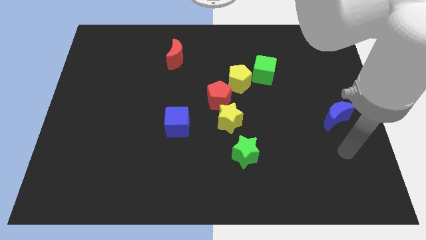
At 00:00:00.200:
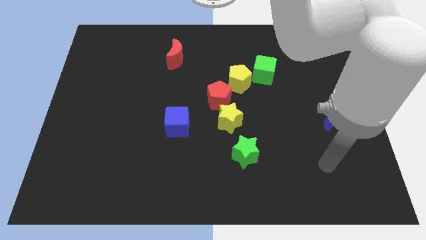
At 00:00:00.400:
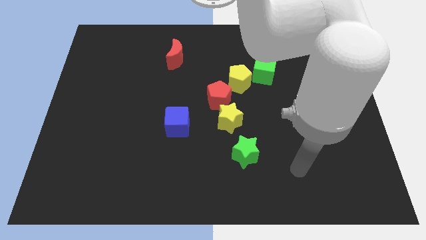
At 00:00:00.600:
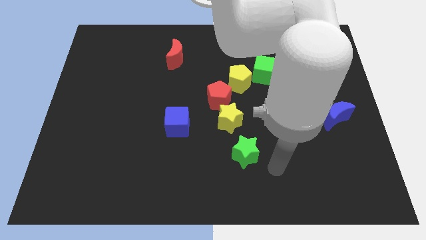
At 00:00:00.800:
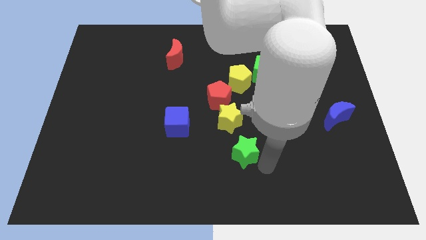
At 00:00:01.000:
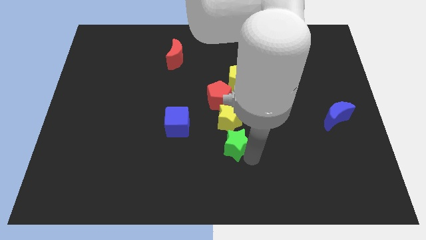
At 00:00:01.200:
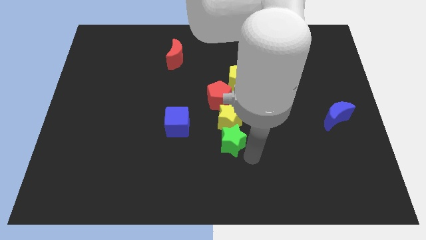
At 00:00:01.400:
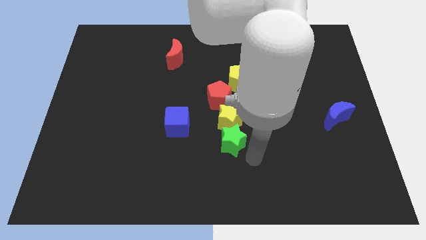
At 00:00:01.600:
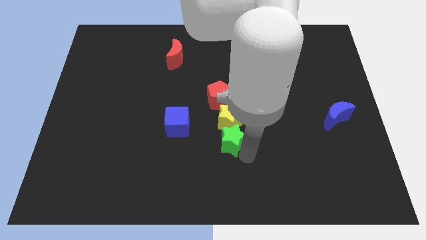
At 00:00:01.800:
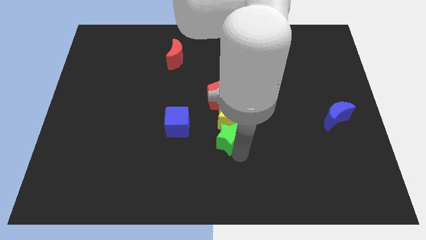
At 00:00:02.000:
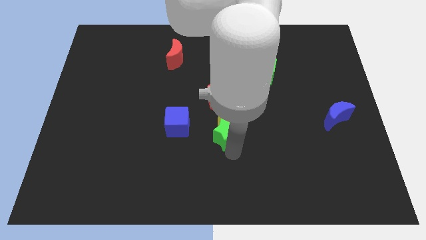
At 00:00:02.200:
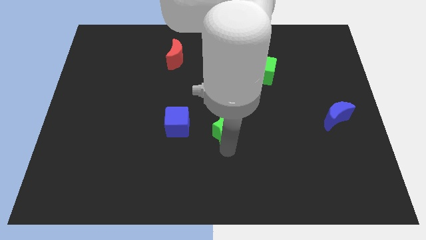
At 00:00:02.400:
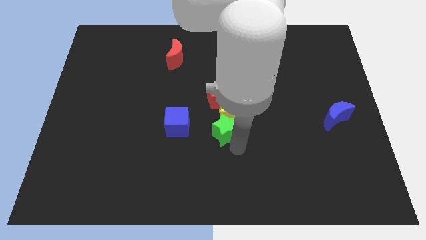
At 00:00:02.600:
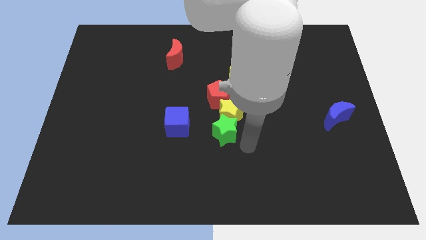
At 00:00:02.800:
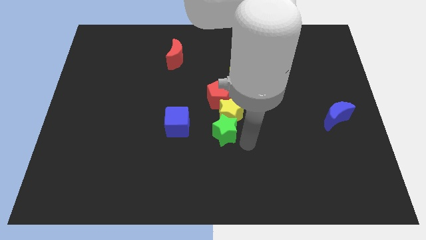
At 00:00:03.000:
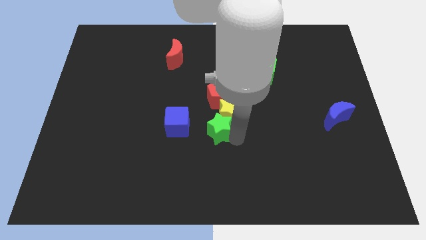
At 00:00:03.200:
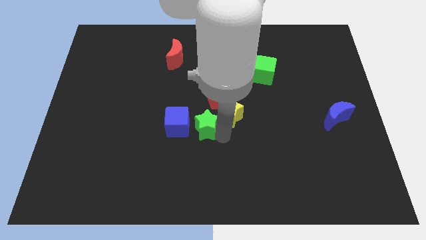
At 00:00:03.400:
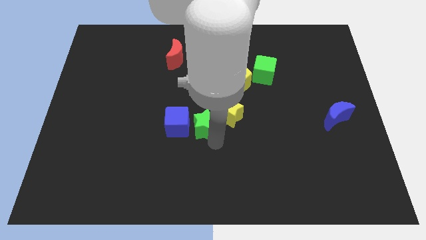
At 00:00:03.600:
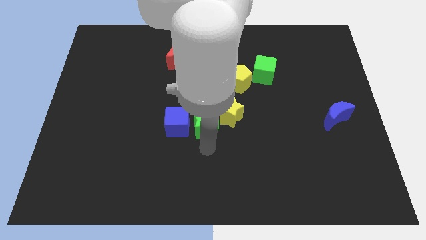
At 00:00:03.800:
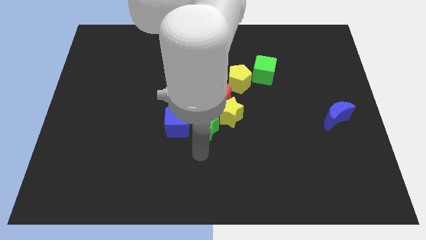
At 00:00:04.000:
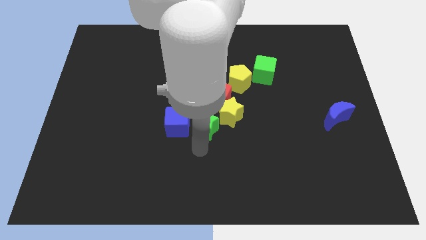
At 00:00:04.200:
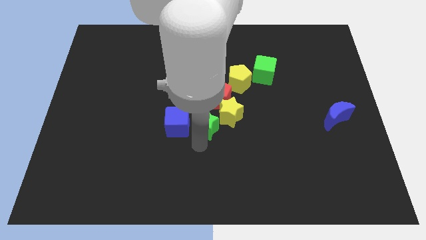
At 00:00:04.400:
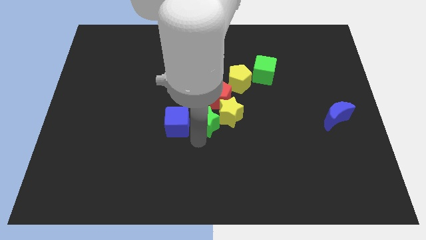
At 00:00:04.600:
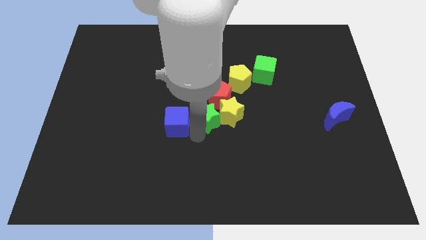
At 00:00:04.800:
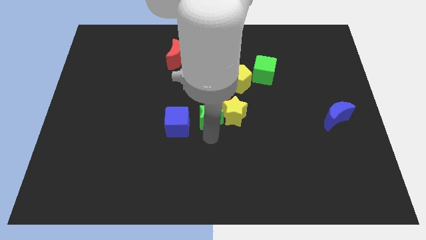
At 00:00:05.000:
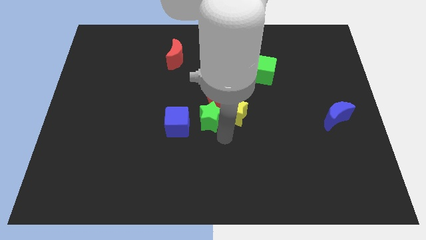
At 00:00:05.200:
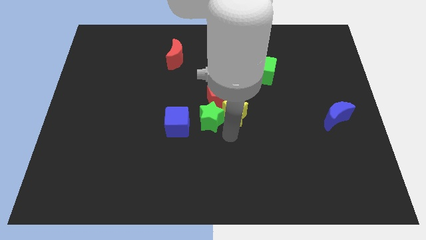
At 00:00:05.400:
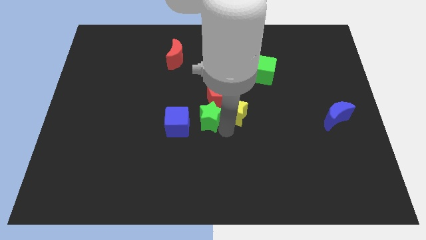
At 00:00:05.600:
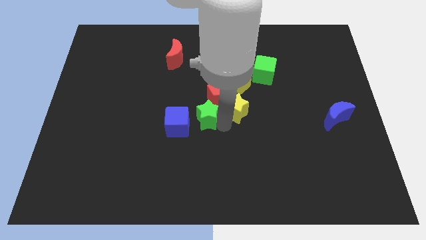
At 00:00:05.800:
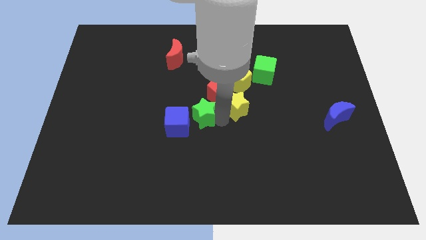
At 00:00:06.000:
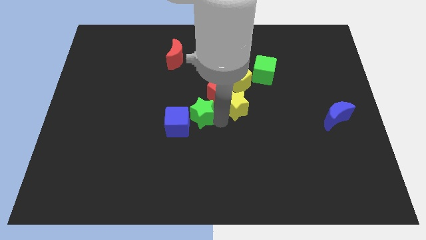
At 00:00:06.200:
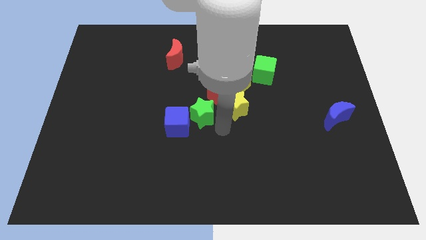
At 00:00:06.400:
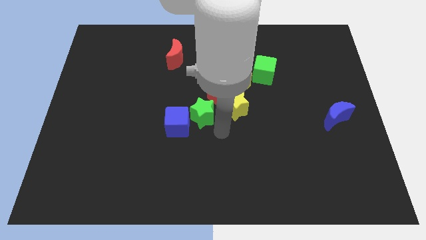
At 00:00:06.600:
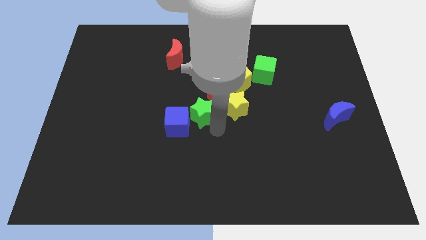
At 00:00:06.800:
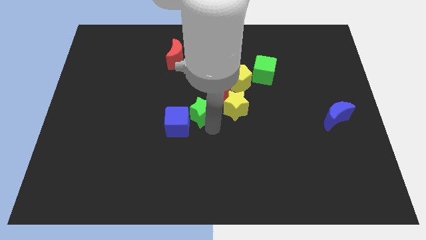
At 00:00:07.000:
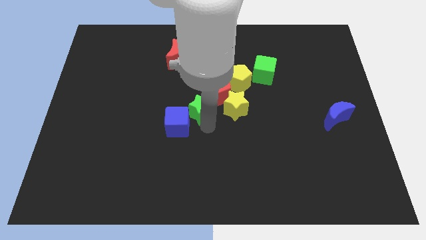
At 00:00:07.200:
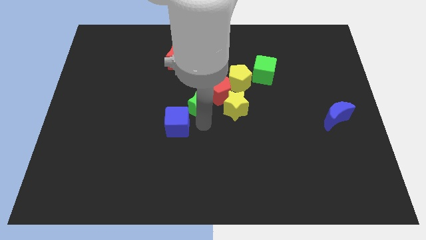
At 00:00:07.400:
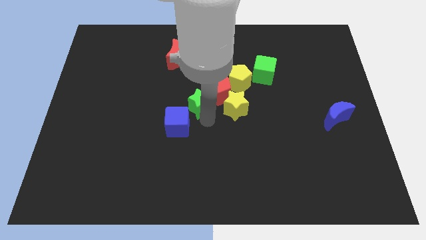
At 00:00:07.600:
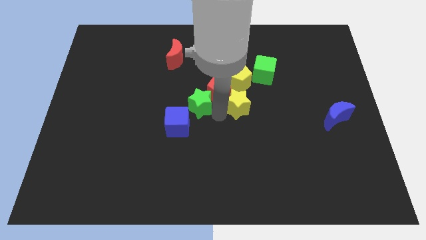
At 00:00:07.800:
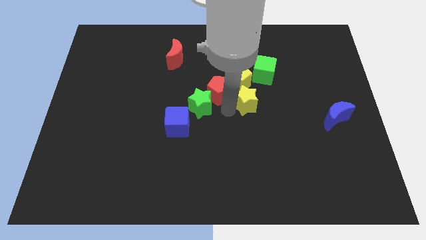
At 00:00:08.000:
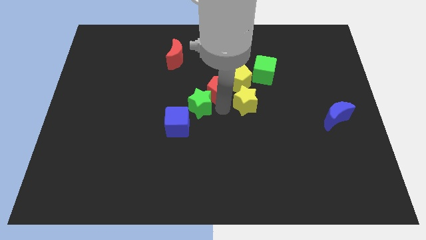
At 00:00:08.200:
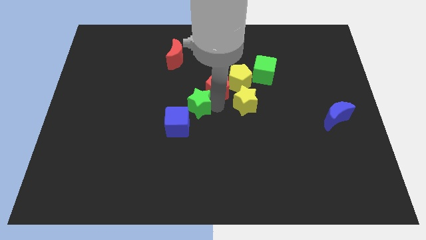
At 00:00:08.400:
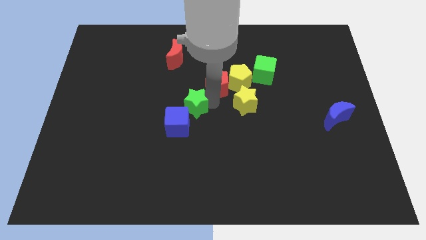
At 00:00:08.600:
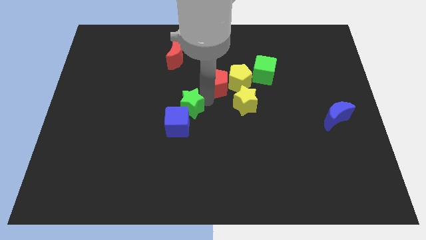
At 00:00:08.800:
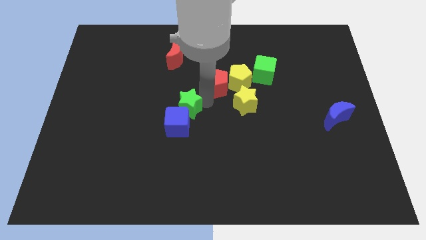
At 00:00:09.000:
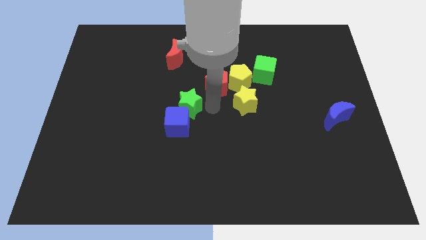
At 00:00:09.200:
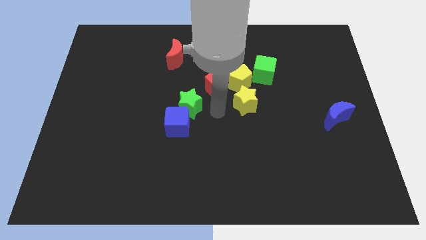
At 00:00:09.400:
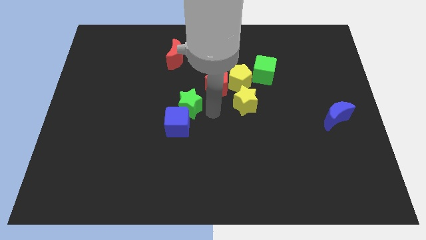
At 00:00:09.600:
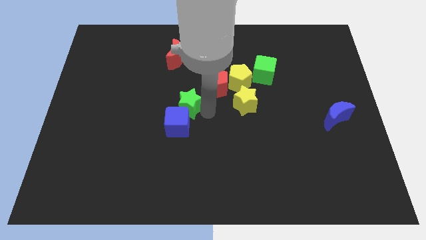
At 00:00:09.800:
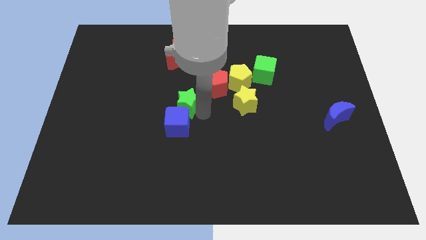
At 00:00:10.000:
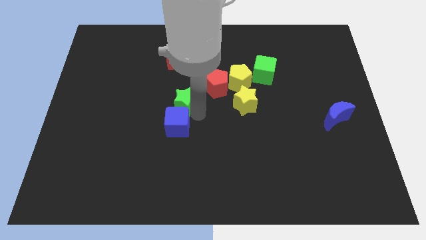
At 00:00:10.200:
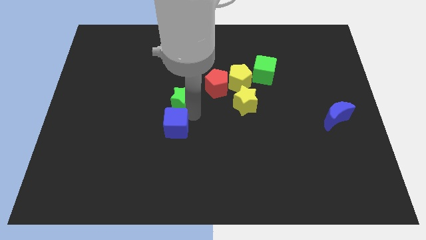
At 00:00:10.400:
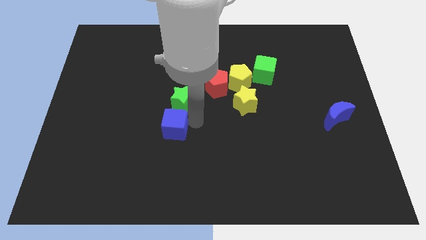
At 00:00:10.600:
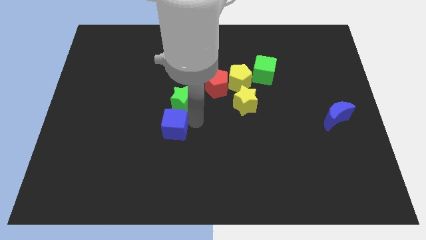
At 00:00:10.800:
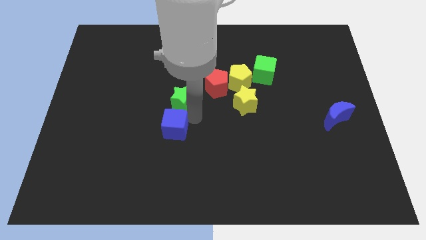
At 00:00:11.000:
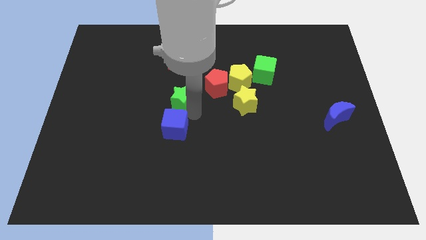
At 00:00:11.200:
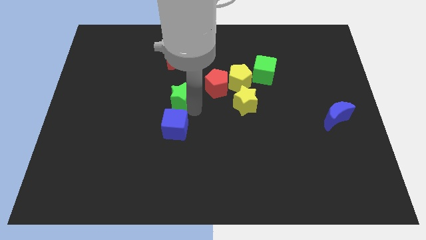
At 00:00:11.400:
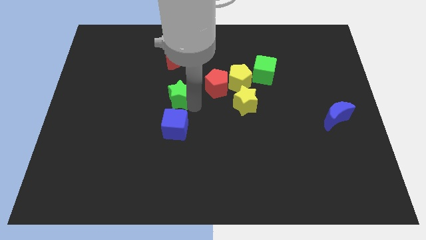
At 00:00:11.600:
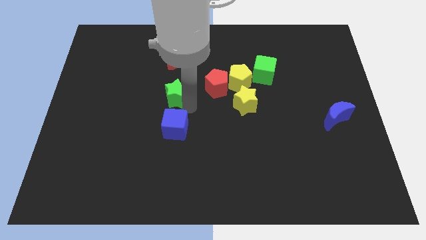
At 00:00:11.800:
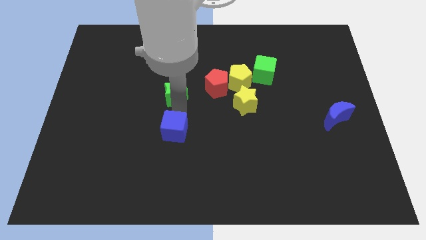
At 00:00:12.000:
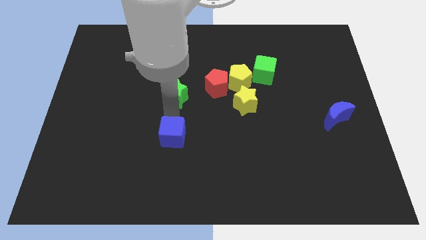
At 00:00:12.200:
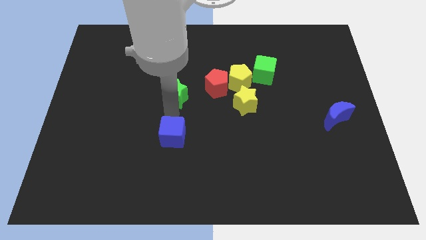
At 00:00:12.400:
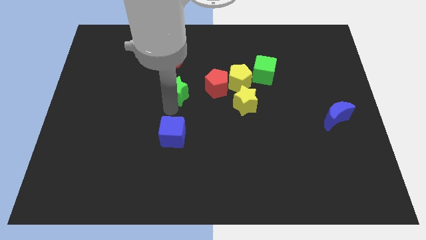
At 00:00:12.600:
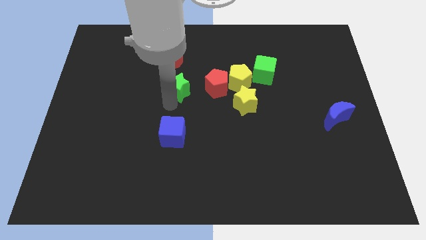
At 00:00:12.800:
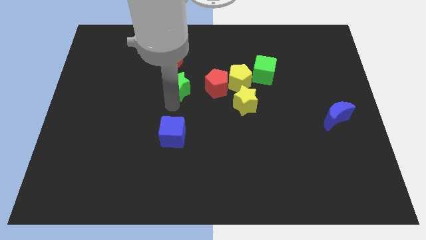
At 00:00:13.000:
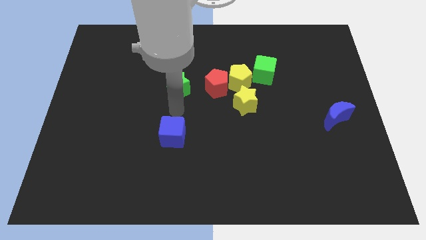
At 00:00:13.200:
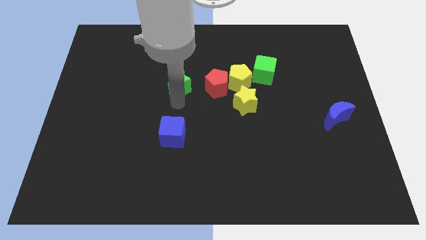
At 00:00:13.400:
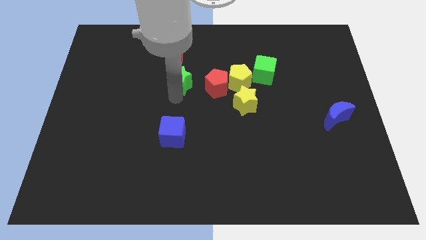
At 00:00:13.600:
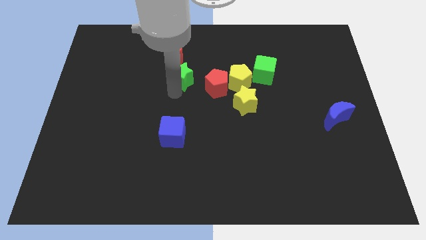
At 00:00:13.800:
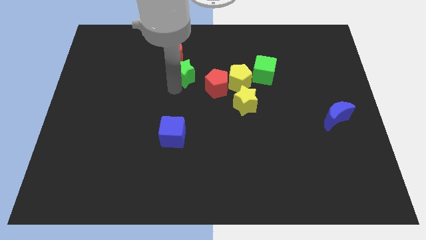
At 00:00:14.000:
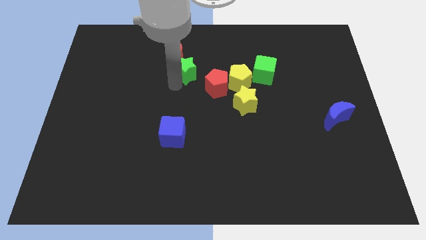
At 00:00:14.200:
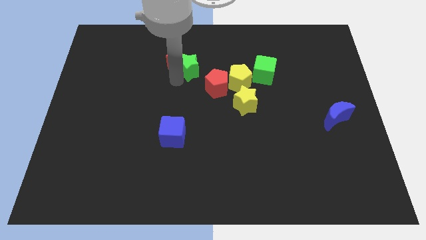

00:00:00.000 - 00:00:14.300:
put the green star to the right of the red moon

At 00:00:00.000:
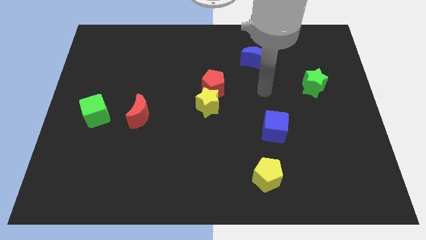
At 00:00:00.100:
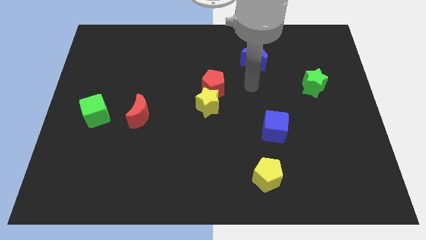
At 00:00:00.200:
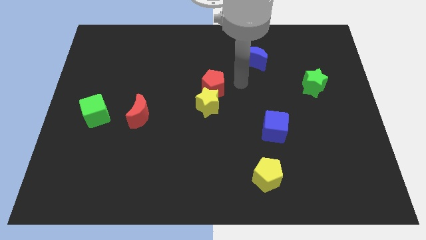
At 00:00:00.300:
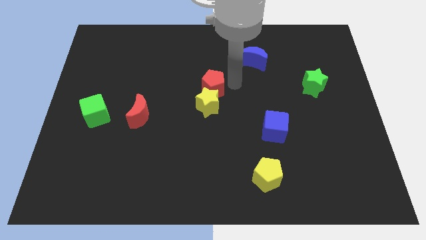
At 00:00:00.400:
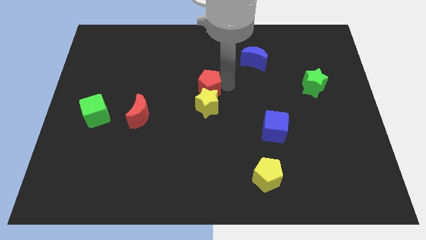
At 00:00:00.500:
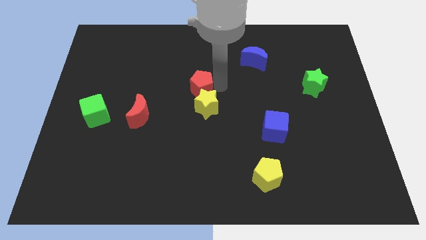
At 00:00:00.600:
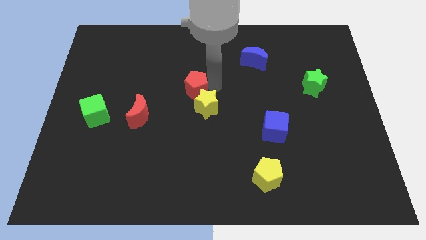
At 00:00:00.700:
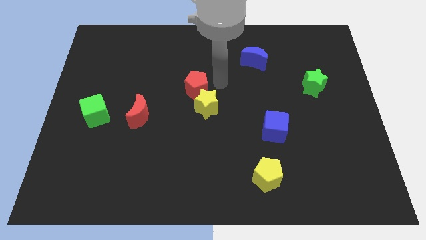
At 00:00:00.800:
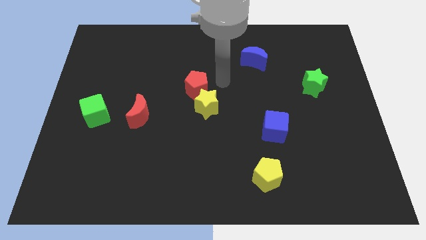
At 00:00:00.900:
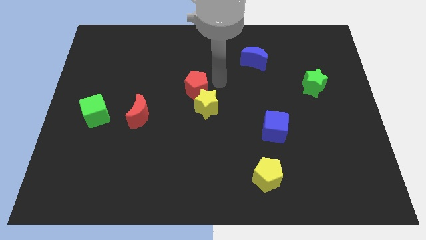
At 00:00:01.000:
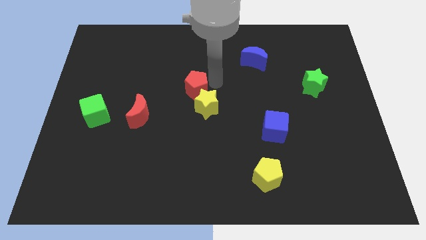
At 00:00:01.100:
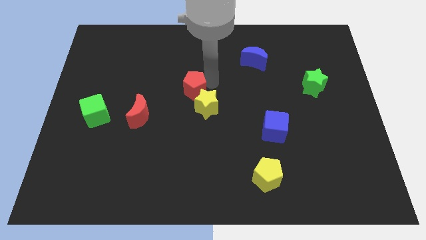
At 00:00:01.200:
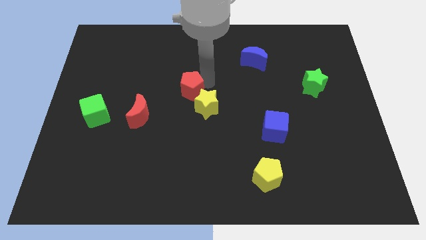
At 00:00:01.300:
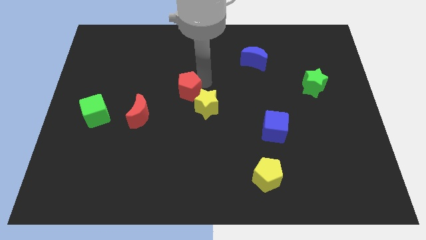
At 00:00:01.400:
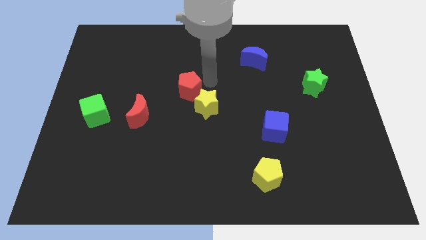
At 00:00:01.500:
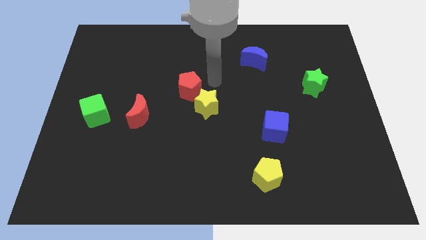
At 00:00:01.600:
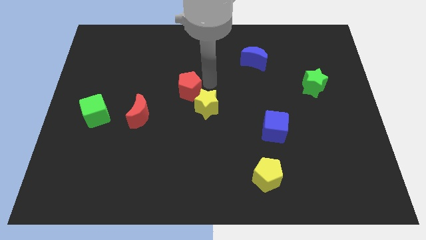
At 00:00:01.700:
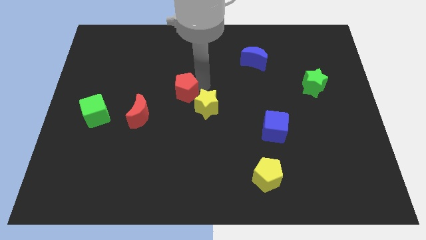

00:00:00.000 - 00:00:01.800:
put the red pentagon diagonally up and to the right of the red moon
